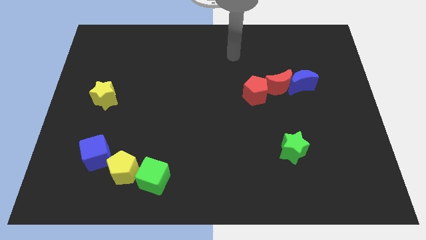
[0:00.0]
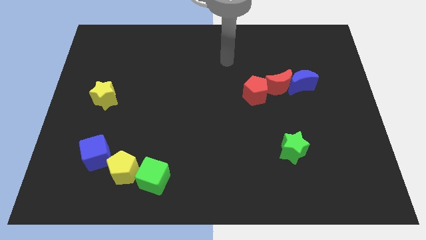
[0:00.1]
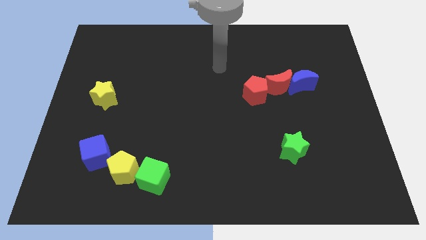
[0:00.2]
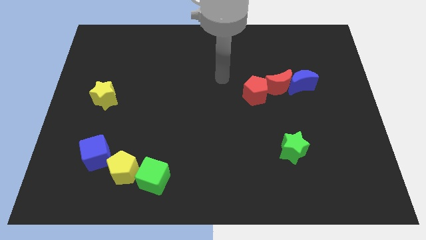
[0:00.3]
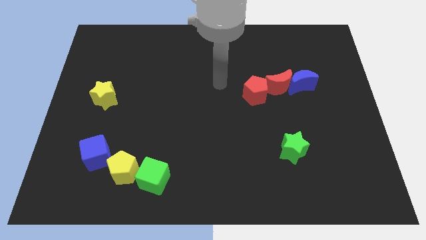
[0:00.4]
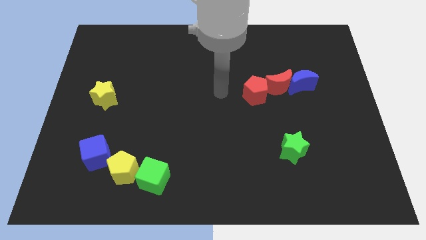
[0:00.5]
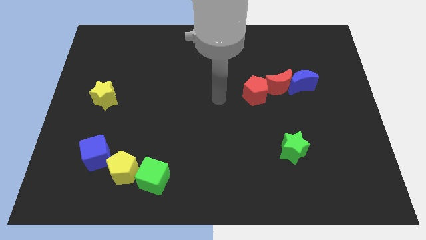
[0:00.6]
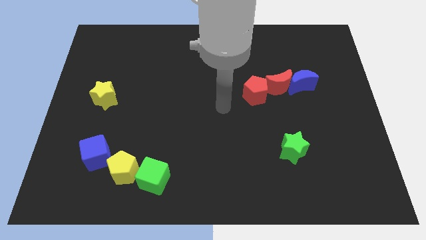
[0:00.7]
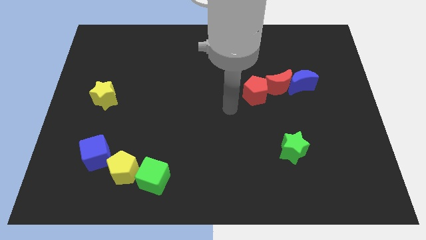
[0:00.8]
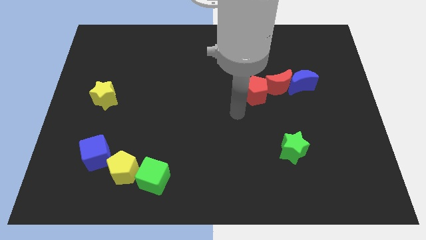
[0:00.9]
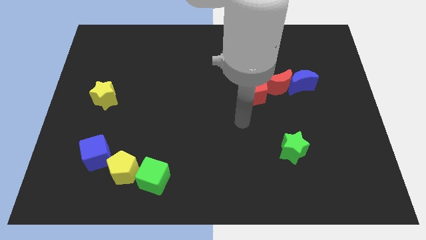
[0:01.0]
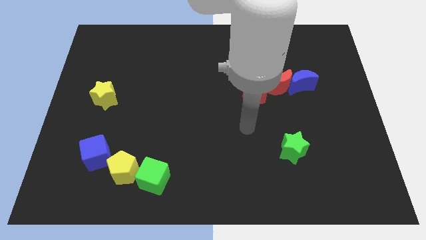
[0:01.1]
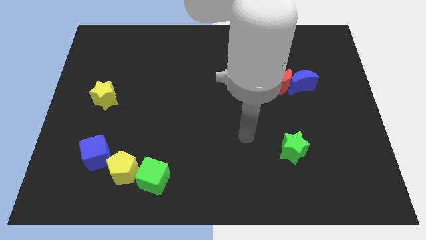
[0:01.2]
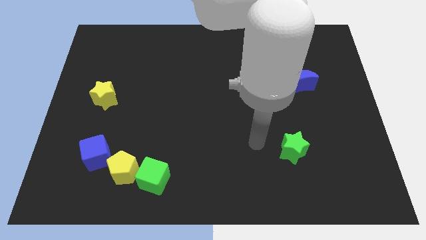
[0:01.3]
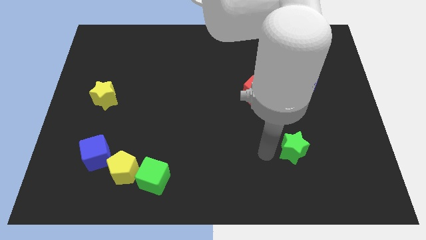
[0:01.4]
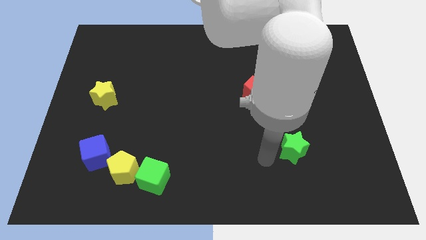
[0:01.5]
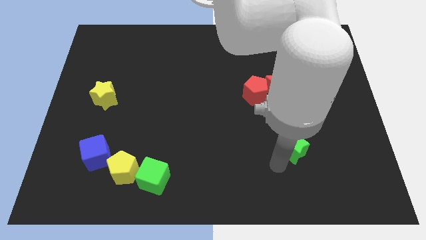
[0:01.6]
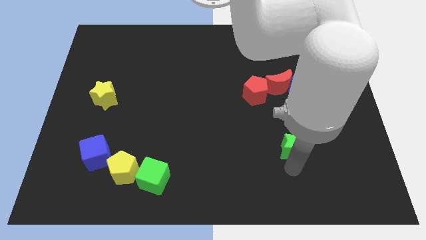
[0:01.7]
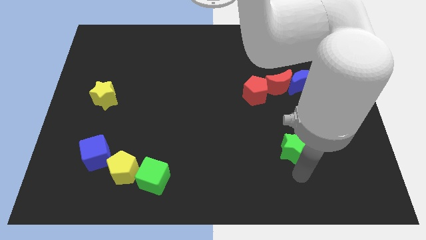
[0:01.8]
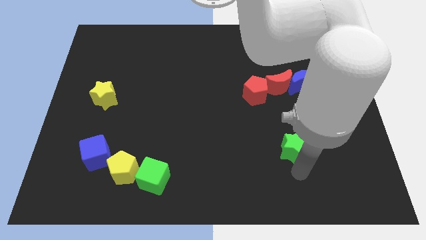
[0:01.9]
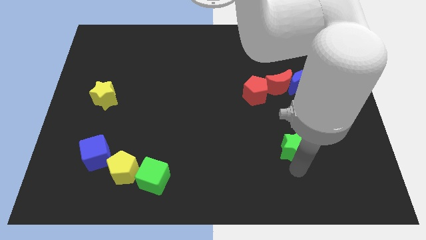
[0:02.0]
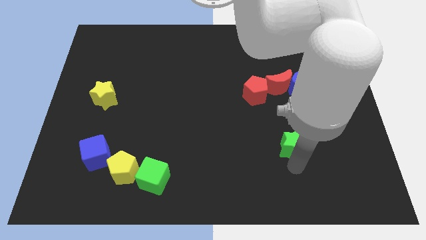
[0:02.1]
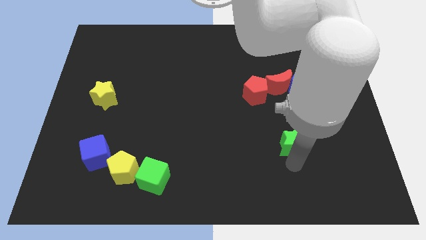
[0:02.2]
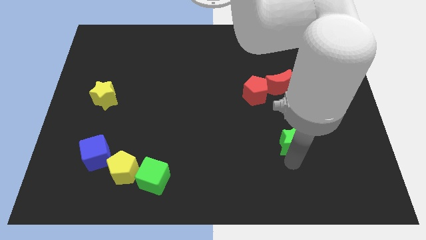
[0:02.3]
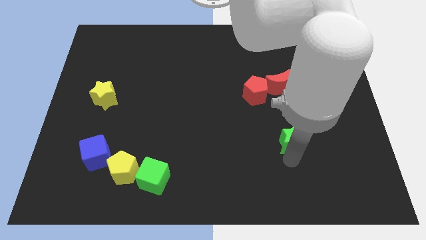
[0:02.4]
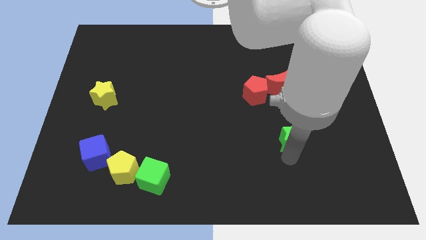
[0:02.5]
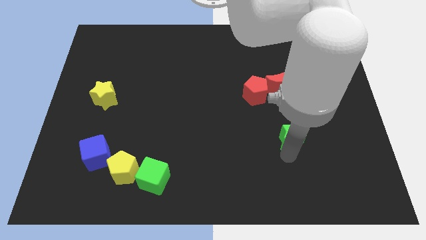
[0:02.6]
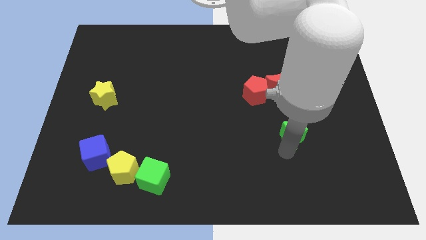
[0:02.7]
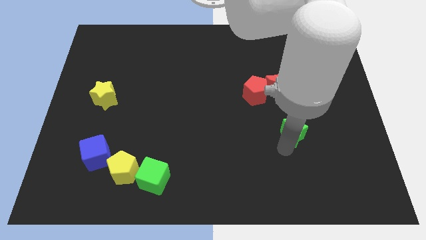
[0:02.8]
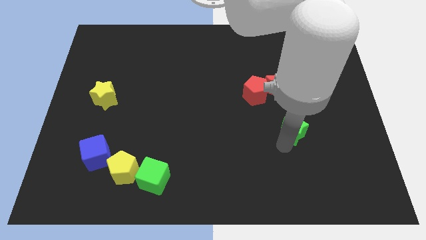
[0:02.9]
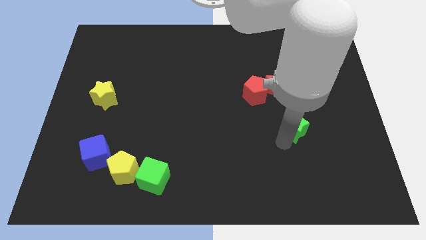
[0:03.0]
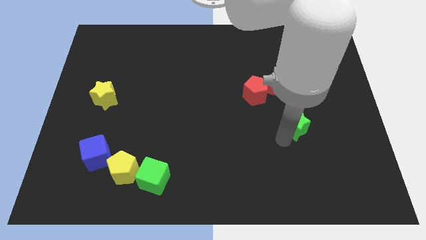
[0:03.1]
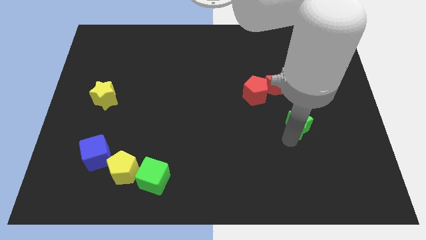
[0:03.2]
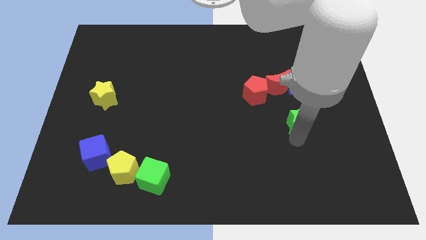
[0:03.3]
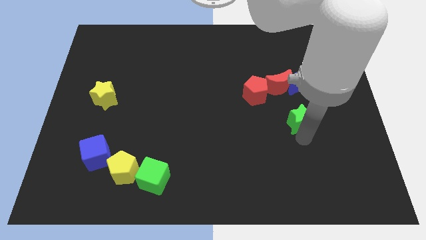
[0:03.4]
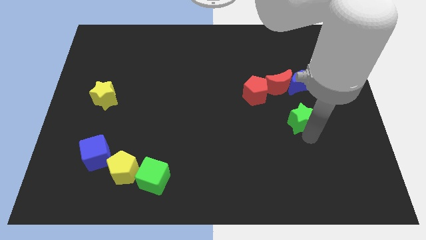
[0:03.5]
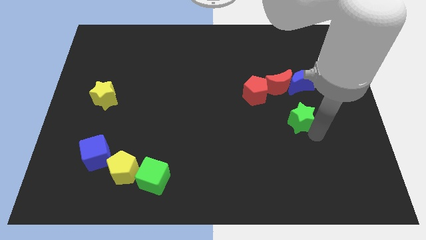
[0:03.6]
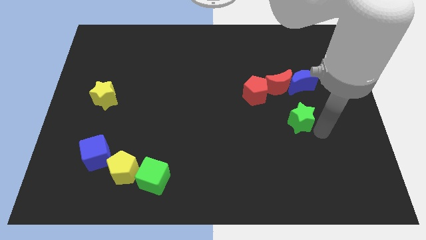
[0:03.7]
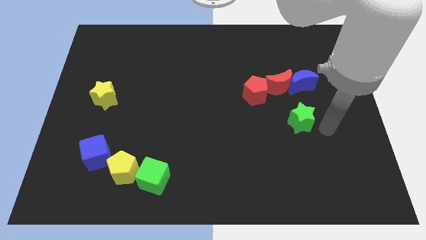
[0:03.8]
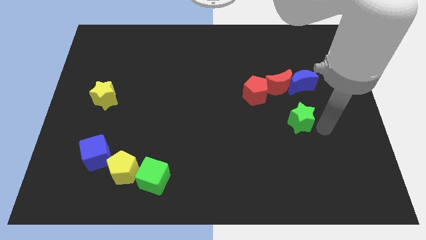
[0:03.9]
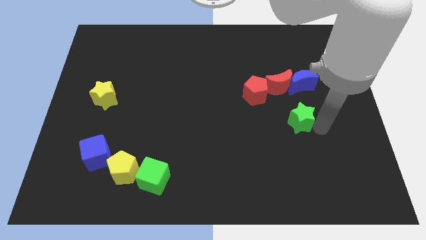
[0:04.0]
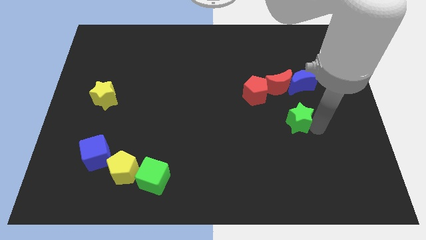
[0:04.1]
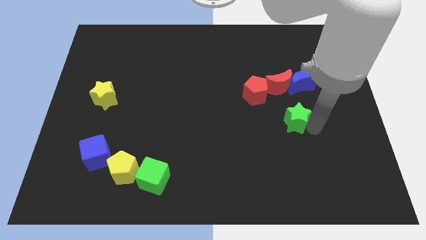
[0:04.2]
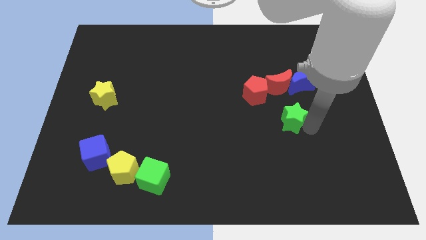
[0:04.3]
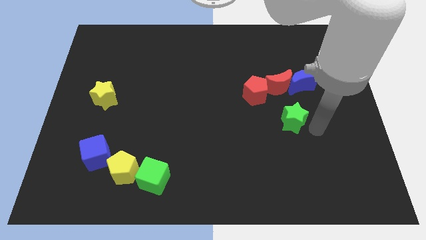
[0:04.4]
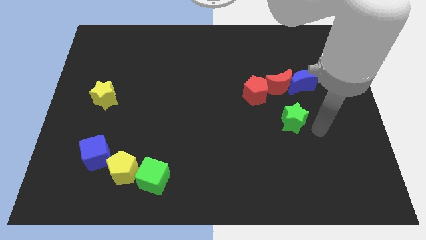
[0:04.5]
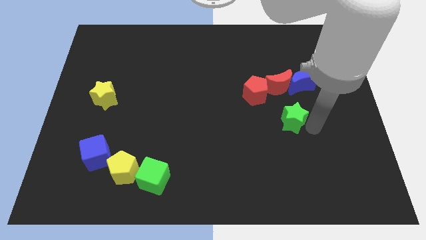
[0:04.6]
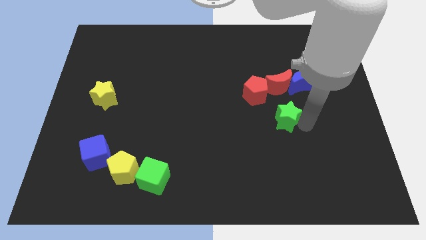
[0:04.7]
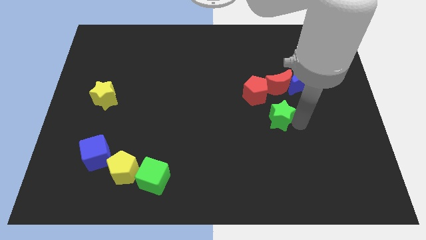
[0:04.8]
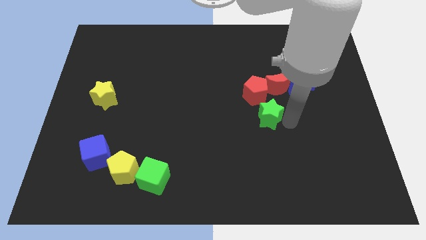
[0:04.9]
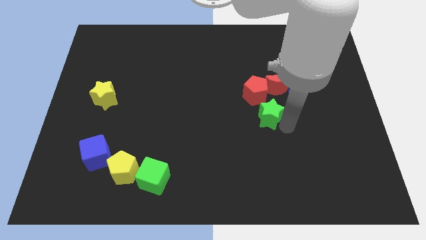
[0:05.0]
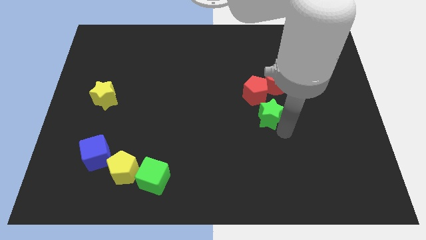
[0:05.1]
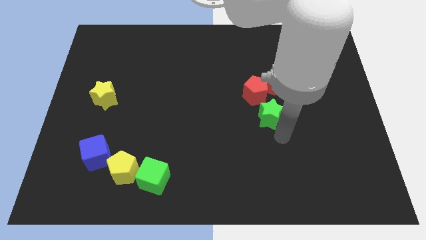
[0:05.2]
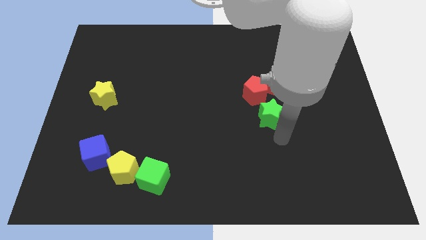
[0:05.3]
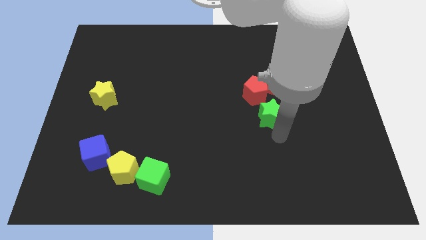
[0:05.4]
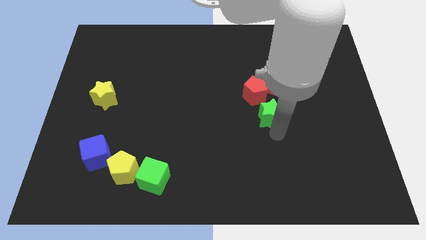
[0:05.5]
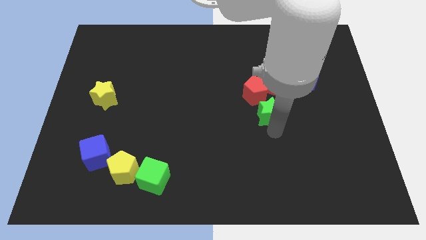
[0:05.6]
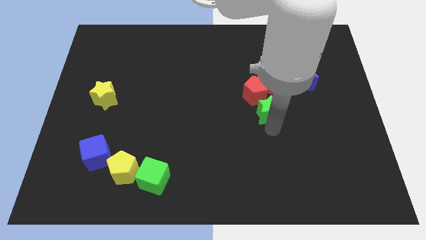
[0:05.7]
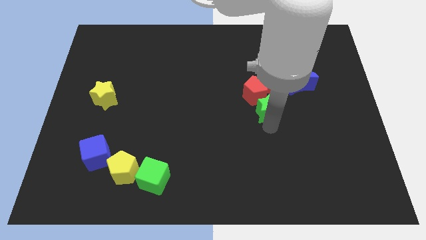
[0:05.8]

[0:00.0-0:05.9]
move the green star to the red pentagon

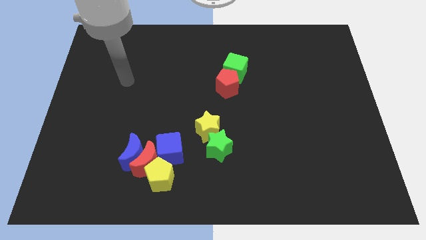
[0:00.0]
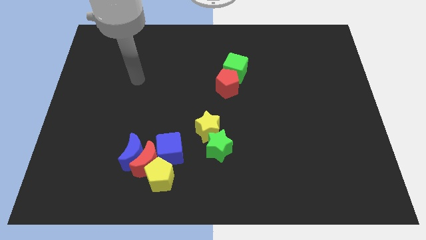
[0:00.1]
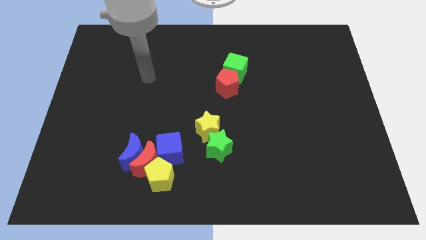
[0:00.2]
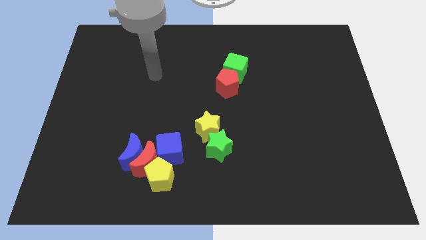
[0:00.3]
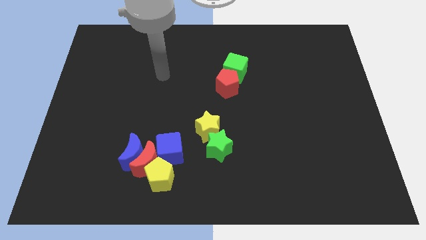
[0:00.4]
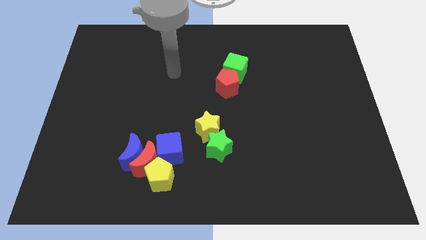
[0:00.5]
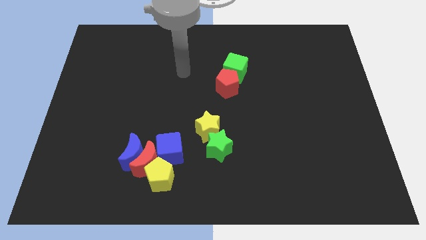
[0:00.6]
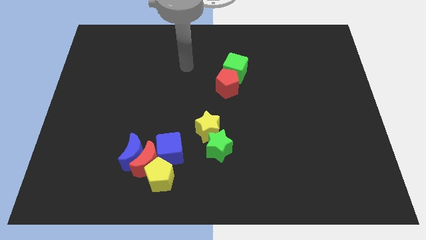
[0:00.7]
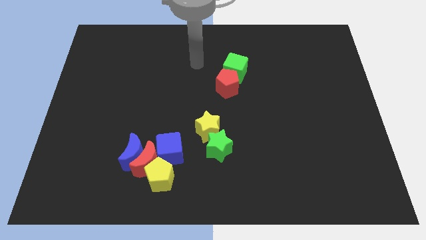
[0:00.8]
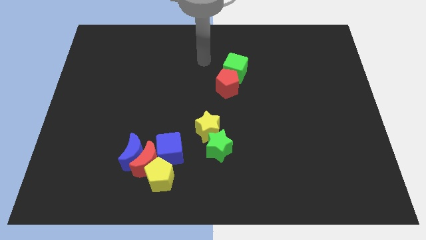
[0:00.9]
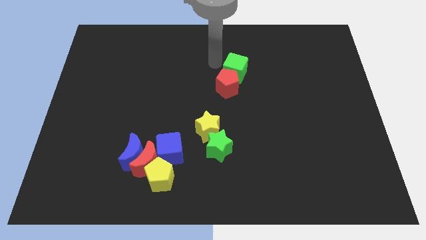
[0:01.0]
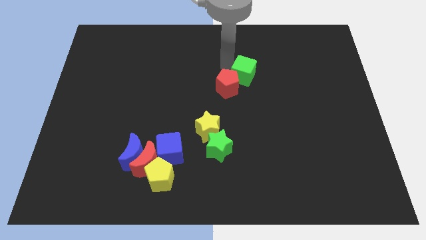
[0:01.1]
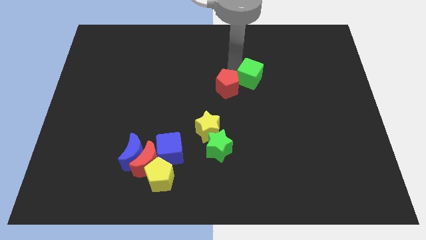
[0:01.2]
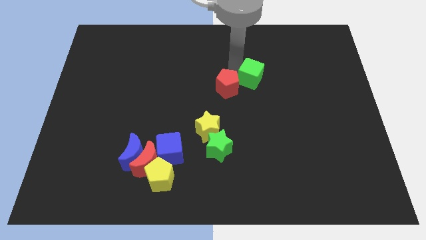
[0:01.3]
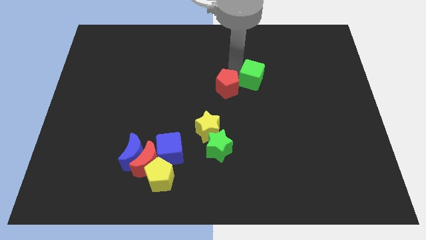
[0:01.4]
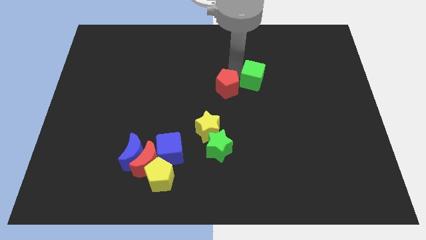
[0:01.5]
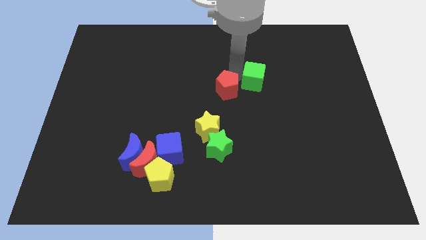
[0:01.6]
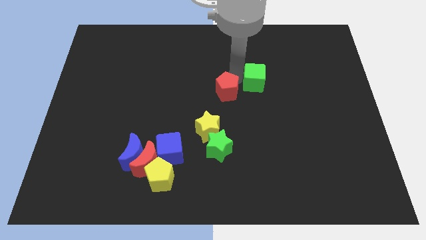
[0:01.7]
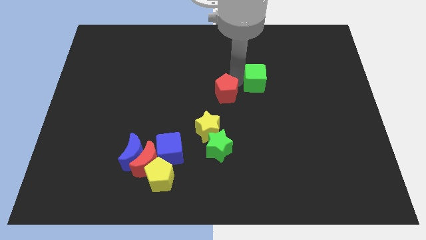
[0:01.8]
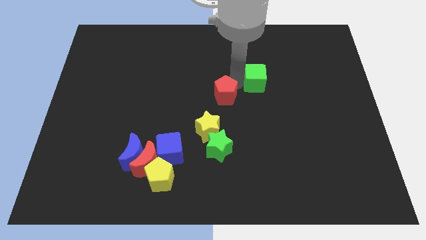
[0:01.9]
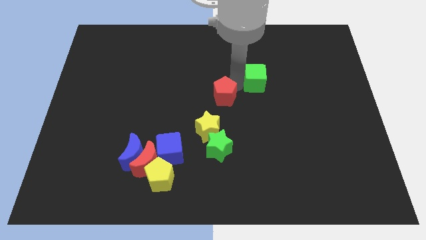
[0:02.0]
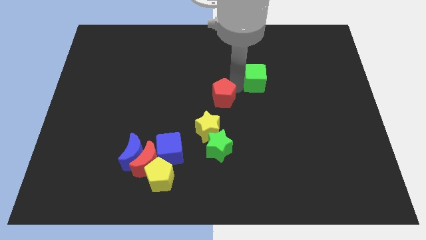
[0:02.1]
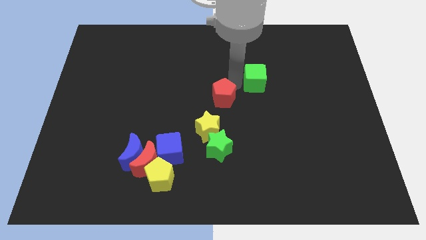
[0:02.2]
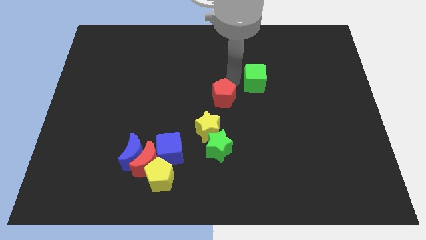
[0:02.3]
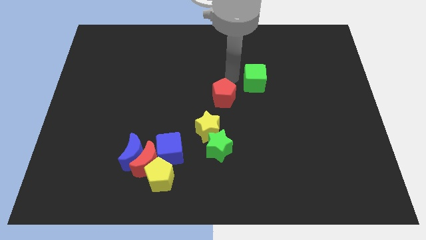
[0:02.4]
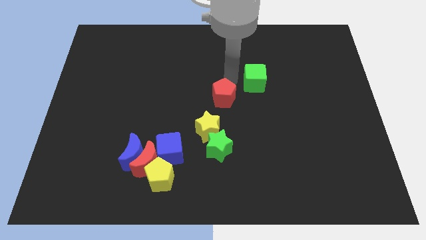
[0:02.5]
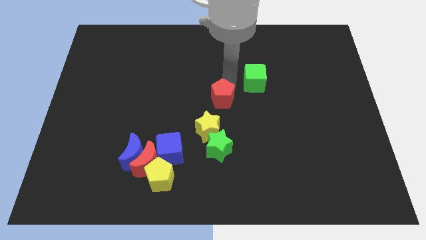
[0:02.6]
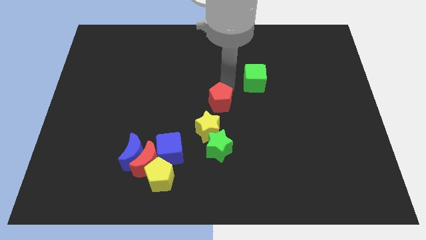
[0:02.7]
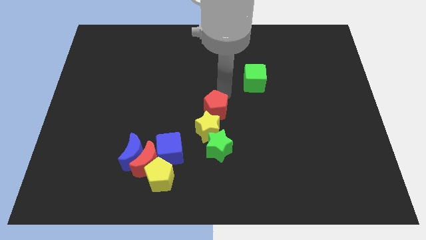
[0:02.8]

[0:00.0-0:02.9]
push the red pentagon next to the yellow star
